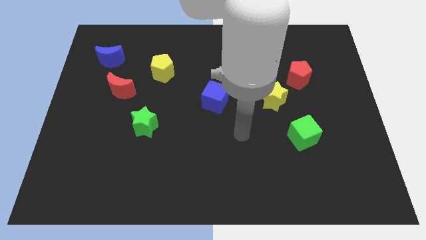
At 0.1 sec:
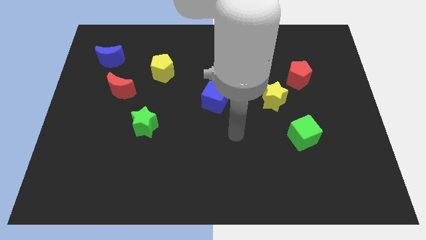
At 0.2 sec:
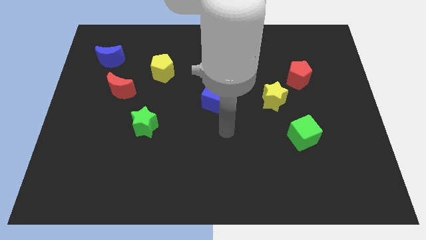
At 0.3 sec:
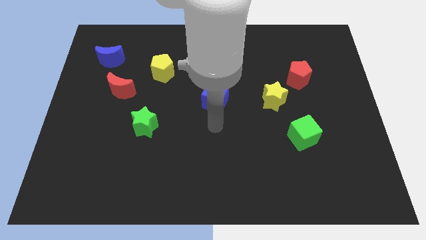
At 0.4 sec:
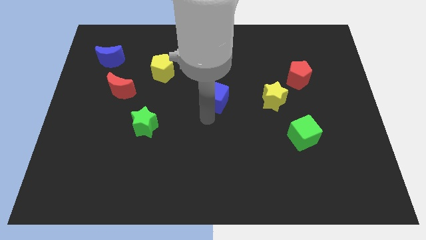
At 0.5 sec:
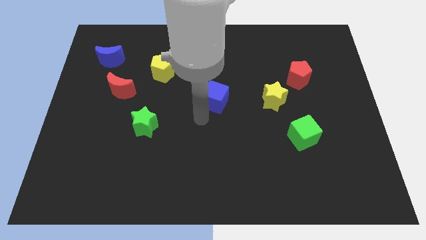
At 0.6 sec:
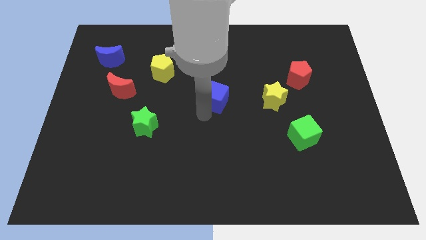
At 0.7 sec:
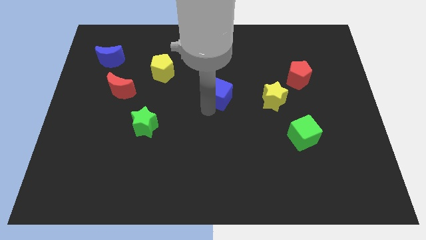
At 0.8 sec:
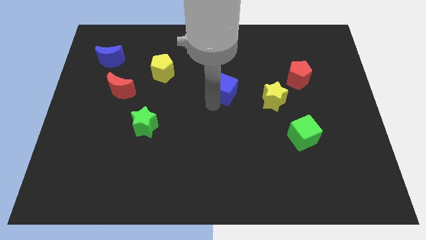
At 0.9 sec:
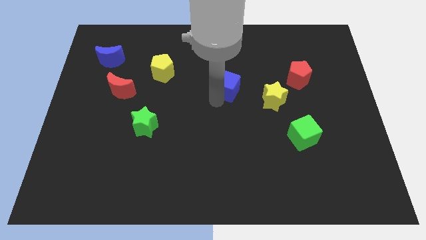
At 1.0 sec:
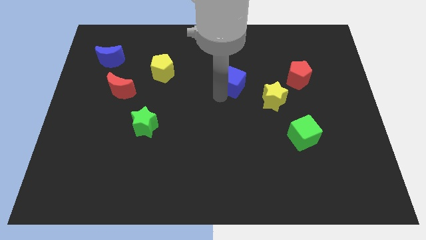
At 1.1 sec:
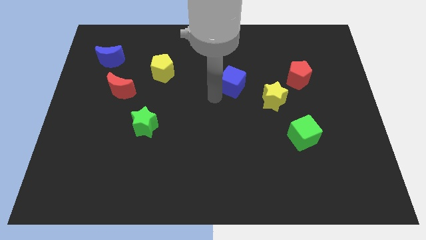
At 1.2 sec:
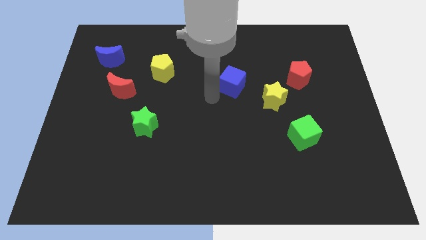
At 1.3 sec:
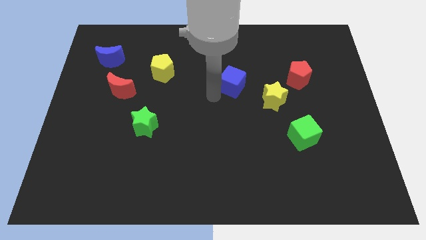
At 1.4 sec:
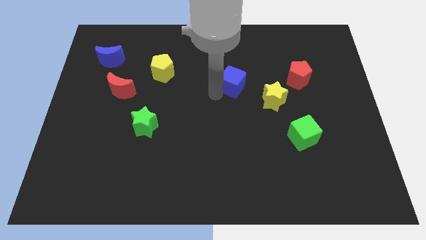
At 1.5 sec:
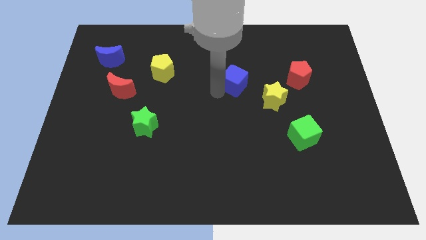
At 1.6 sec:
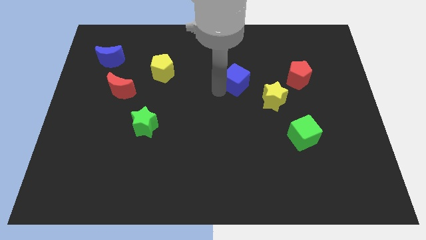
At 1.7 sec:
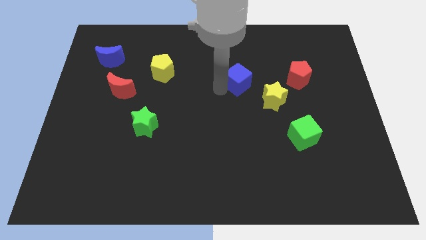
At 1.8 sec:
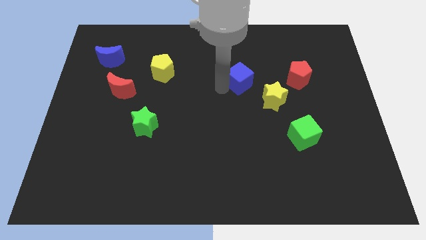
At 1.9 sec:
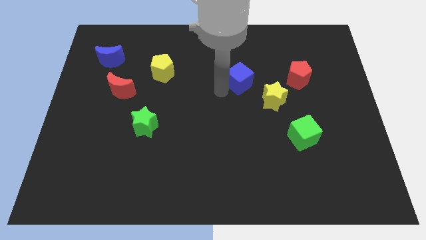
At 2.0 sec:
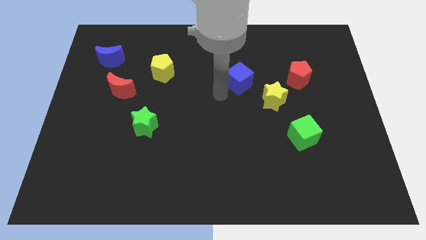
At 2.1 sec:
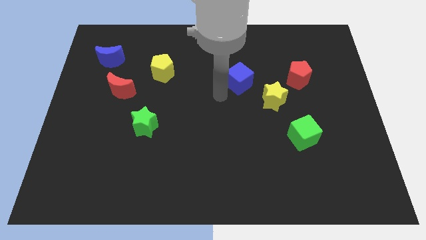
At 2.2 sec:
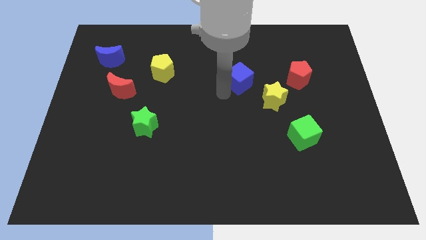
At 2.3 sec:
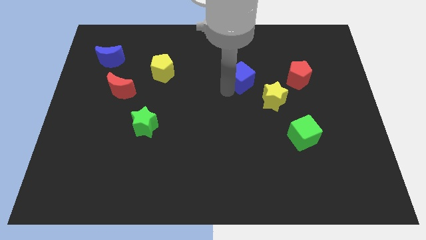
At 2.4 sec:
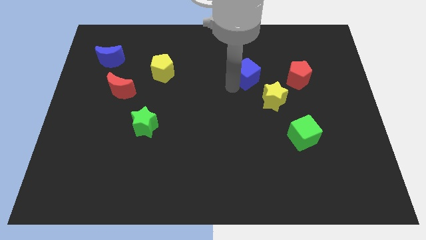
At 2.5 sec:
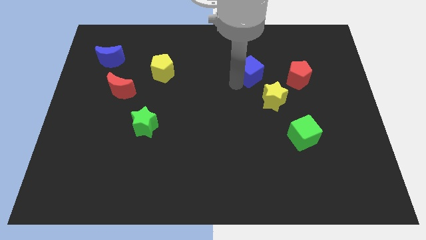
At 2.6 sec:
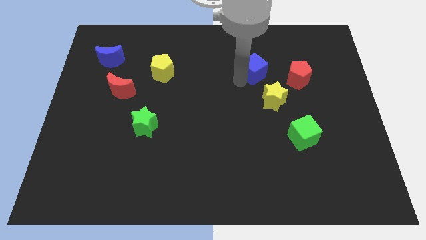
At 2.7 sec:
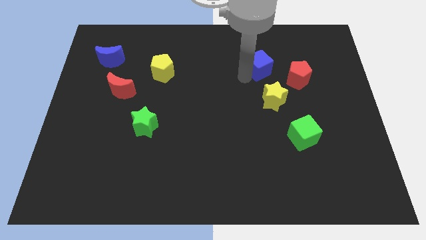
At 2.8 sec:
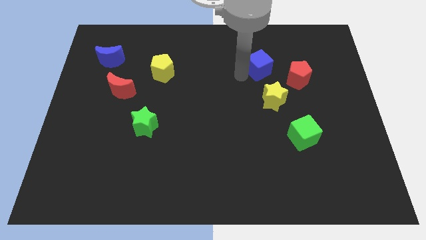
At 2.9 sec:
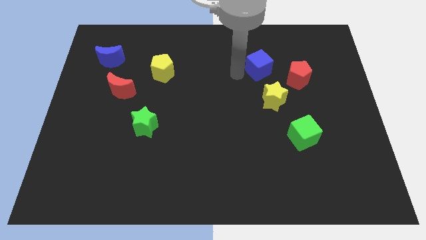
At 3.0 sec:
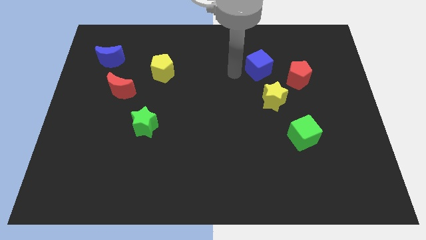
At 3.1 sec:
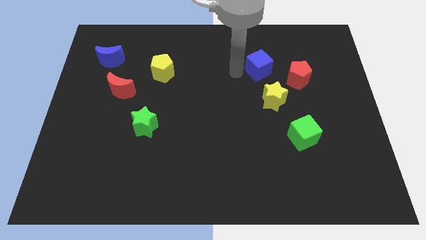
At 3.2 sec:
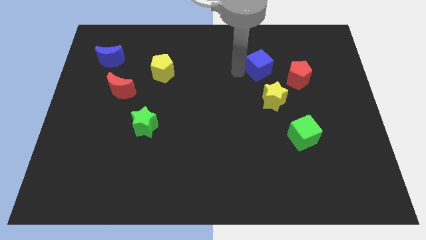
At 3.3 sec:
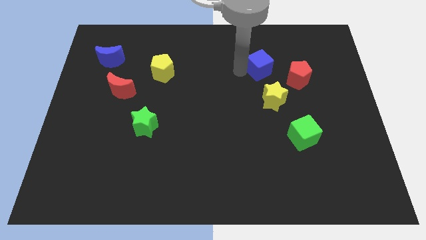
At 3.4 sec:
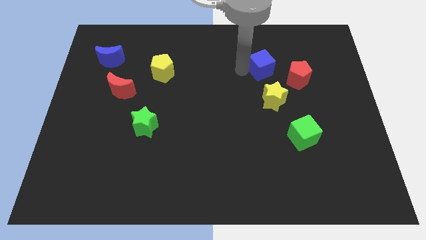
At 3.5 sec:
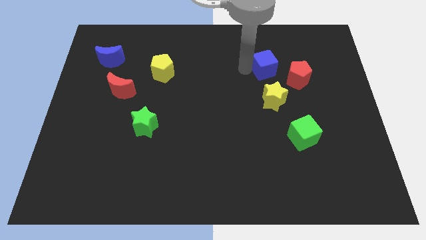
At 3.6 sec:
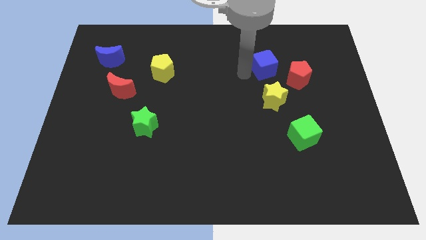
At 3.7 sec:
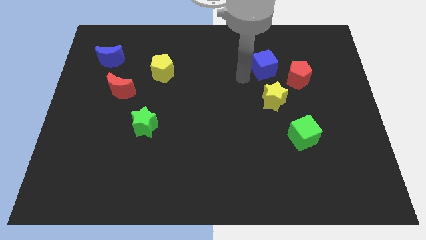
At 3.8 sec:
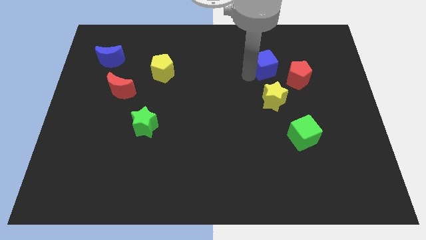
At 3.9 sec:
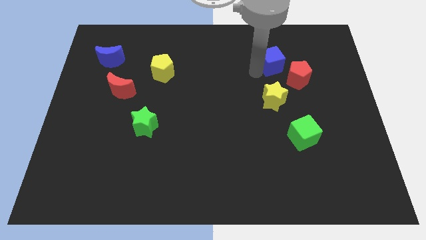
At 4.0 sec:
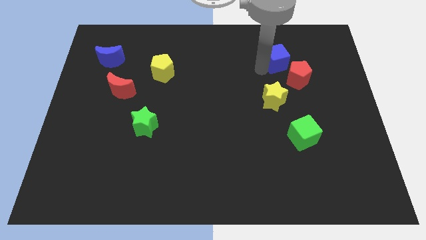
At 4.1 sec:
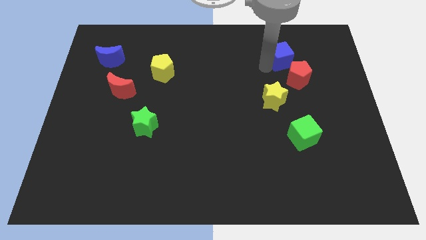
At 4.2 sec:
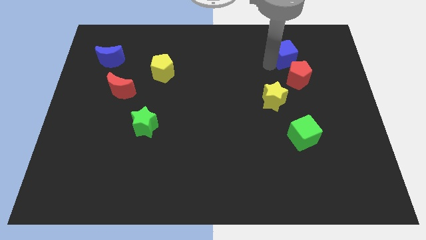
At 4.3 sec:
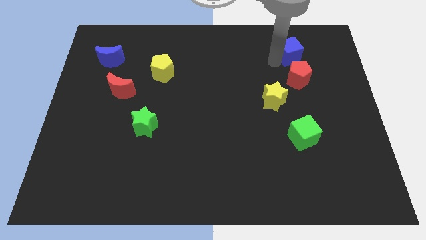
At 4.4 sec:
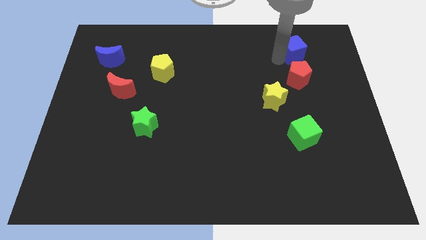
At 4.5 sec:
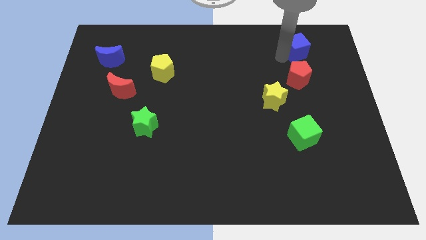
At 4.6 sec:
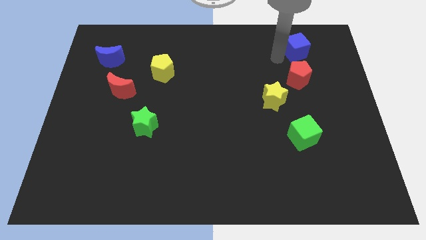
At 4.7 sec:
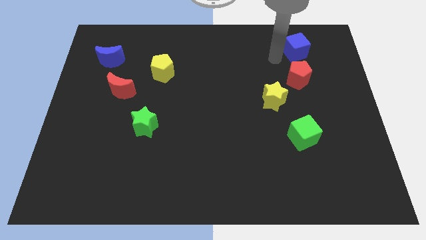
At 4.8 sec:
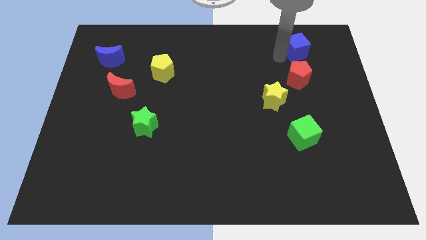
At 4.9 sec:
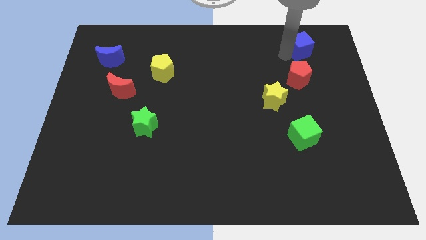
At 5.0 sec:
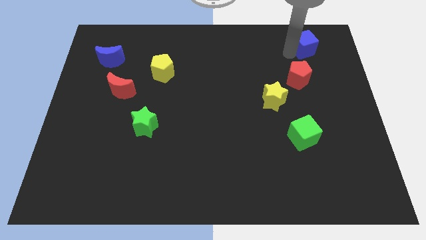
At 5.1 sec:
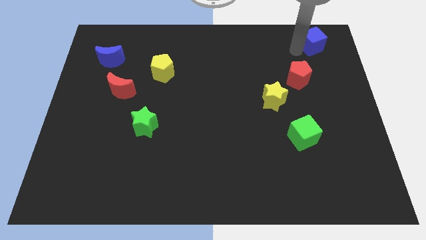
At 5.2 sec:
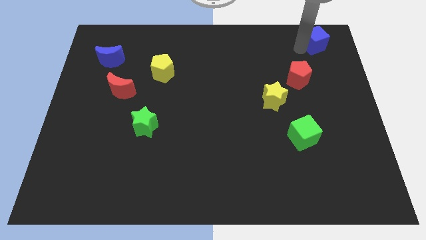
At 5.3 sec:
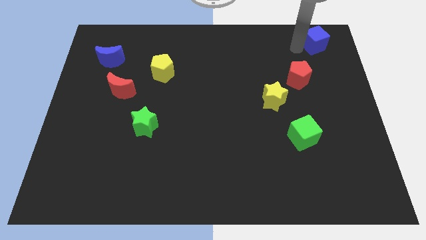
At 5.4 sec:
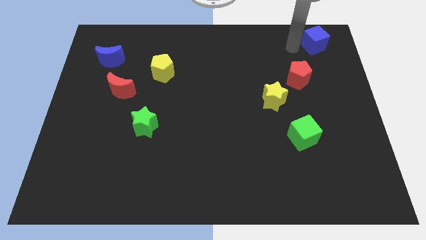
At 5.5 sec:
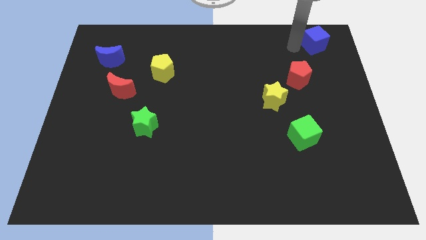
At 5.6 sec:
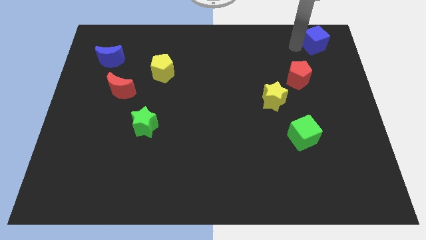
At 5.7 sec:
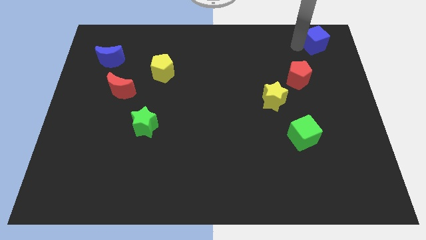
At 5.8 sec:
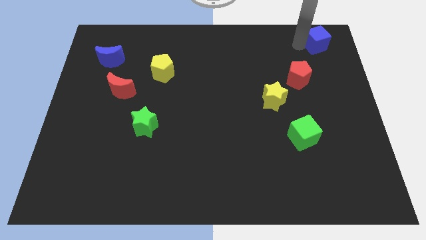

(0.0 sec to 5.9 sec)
move the blue cube to the upper right corner

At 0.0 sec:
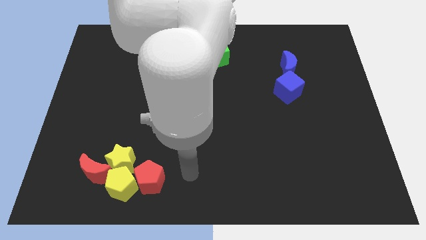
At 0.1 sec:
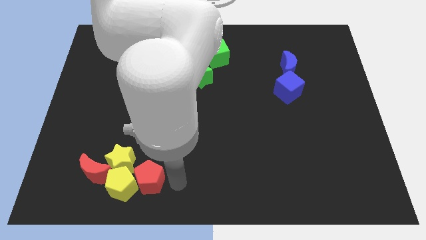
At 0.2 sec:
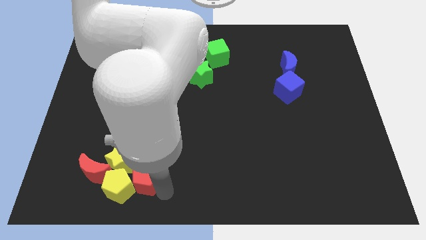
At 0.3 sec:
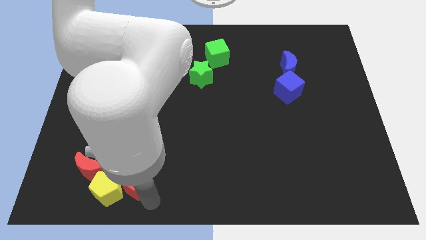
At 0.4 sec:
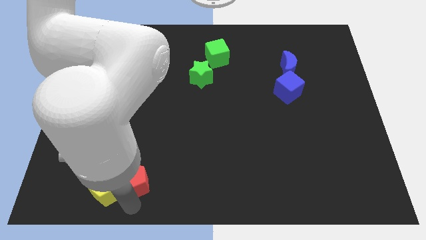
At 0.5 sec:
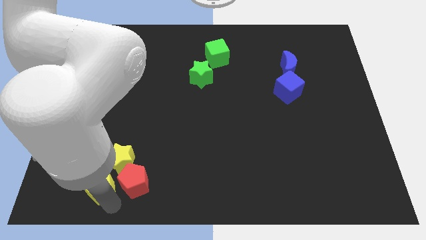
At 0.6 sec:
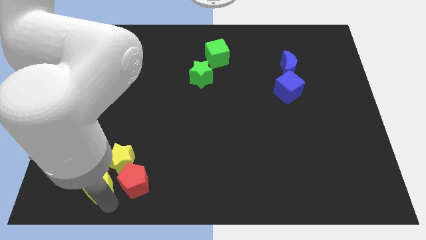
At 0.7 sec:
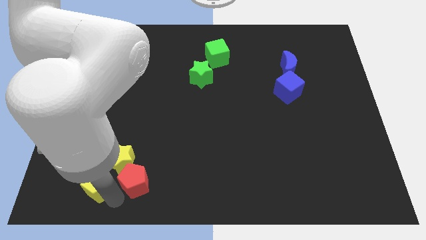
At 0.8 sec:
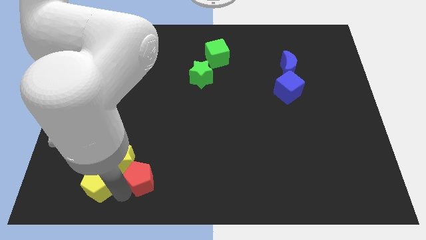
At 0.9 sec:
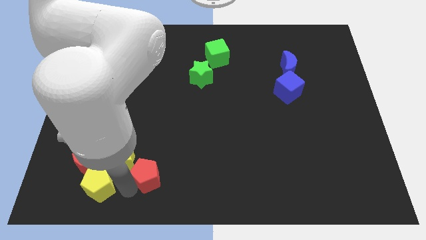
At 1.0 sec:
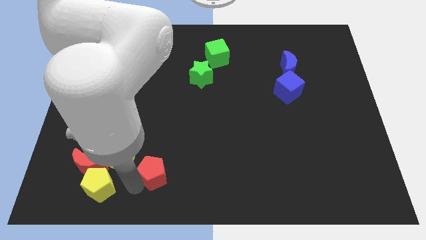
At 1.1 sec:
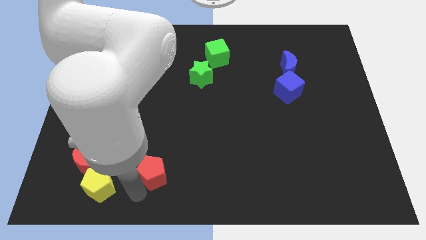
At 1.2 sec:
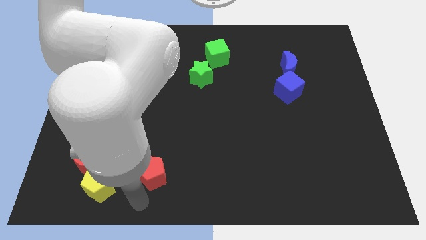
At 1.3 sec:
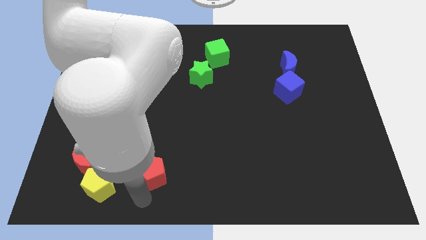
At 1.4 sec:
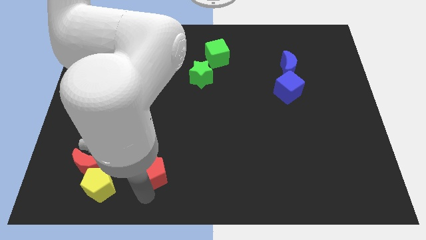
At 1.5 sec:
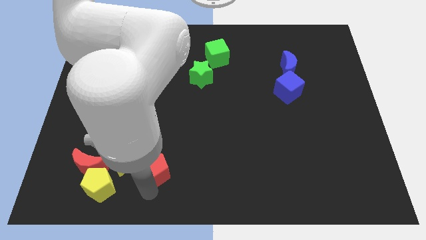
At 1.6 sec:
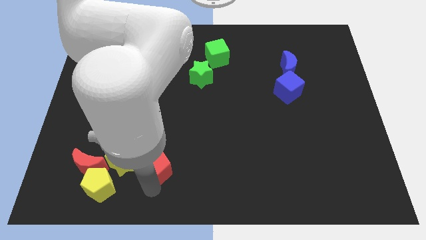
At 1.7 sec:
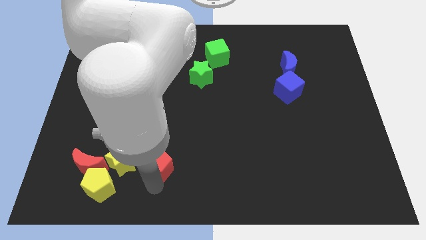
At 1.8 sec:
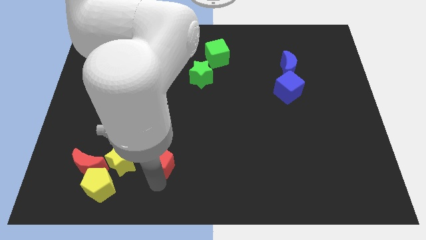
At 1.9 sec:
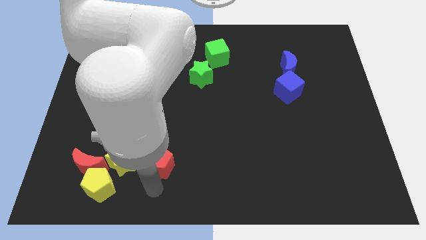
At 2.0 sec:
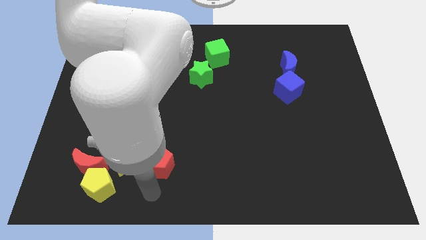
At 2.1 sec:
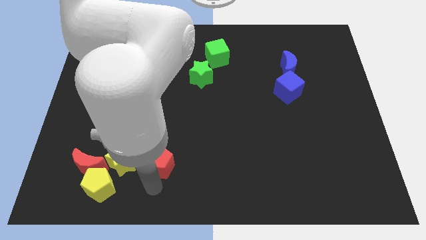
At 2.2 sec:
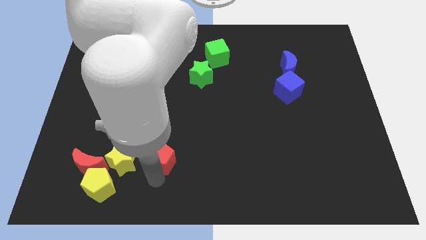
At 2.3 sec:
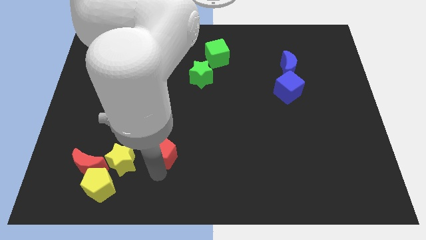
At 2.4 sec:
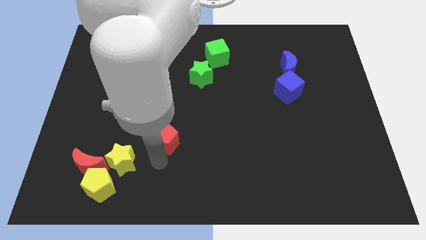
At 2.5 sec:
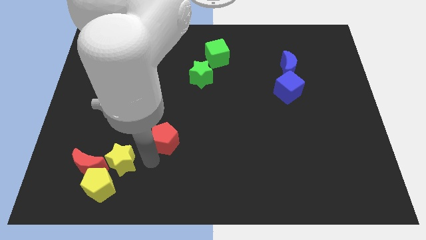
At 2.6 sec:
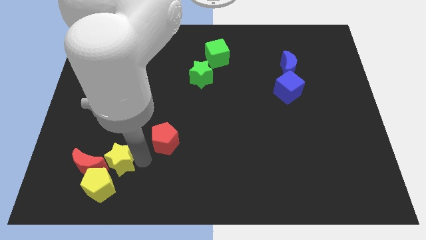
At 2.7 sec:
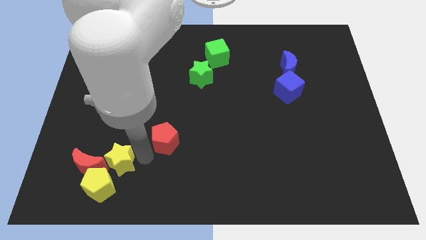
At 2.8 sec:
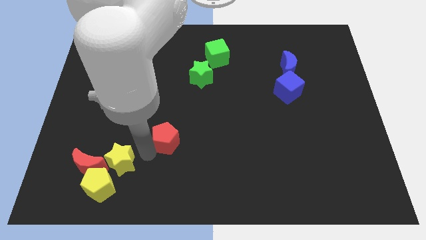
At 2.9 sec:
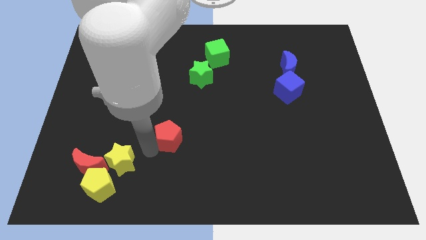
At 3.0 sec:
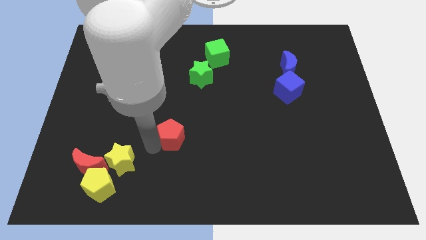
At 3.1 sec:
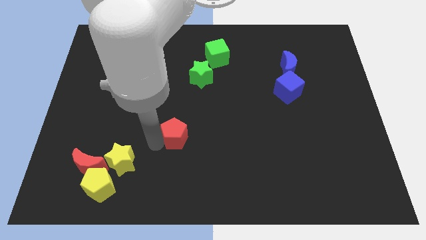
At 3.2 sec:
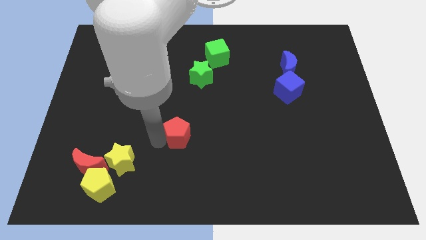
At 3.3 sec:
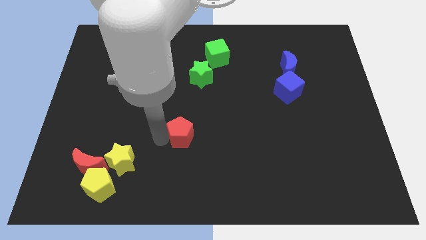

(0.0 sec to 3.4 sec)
push the red pentagon to the middle of the board
